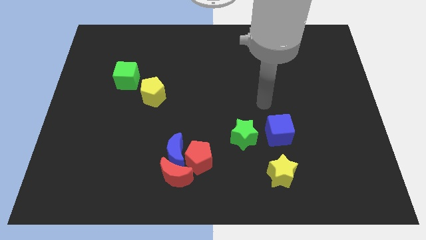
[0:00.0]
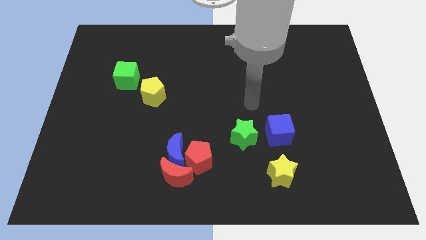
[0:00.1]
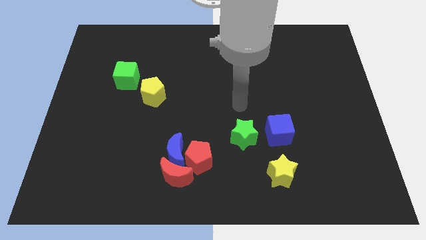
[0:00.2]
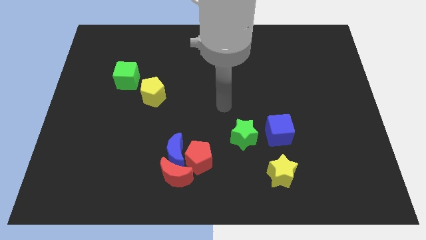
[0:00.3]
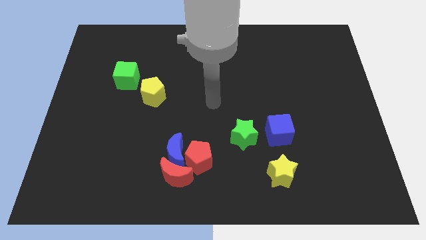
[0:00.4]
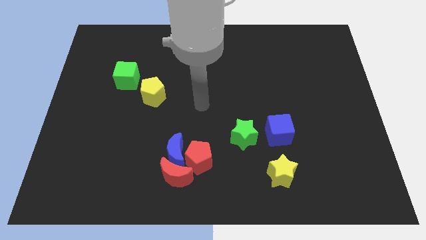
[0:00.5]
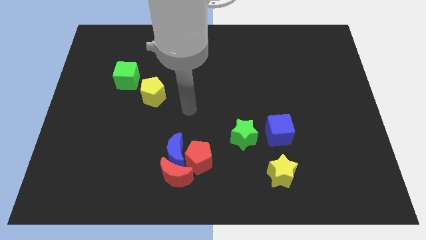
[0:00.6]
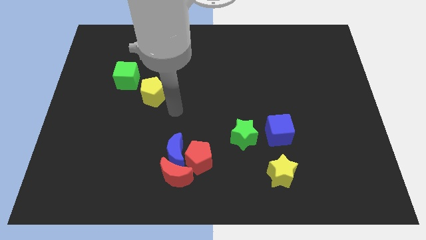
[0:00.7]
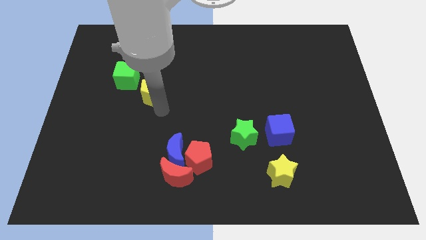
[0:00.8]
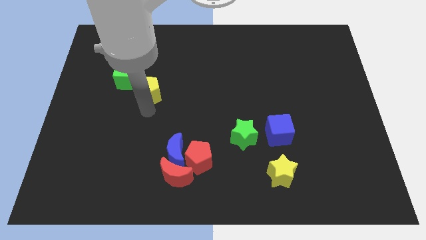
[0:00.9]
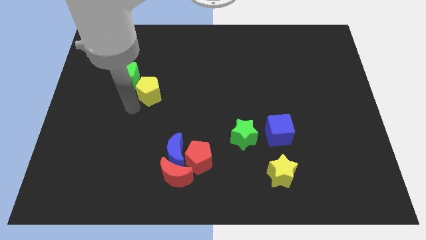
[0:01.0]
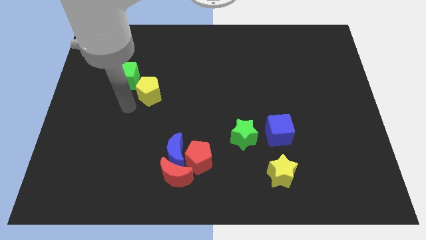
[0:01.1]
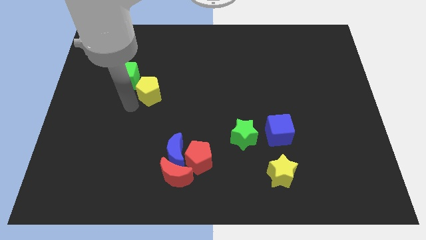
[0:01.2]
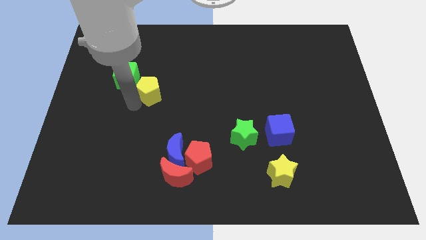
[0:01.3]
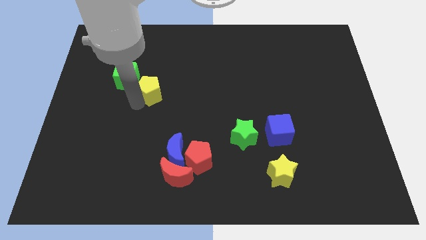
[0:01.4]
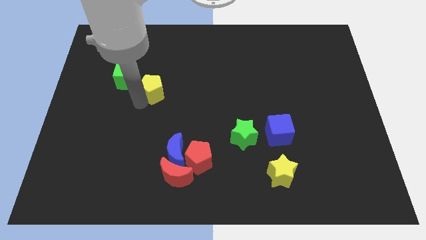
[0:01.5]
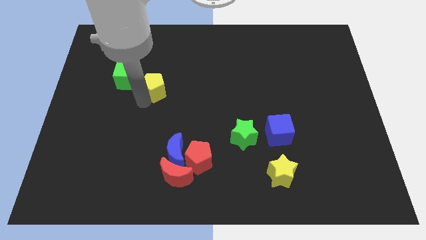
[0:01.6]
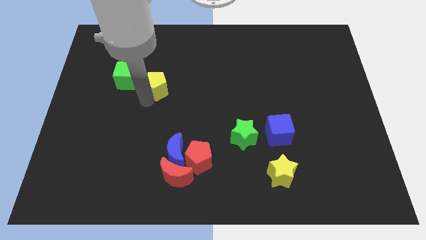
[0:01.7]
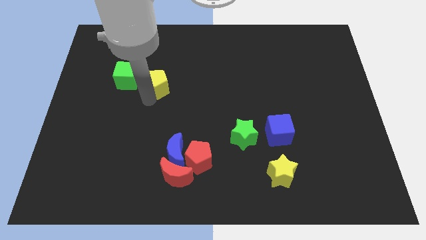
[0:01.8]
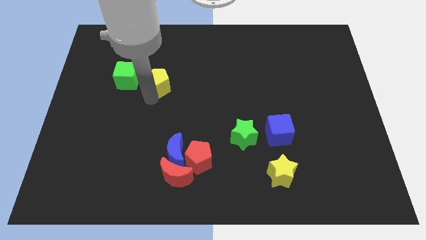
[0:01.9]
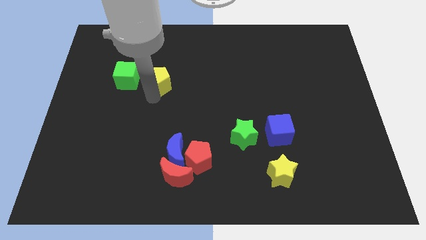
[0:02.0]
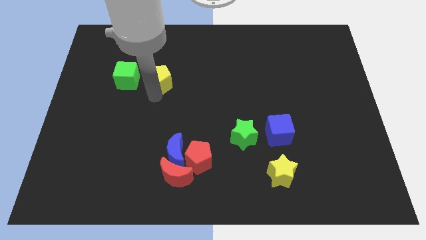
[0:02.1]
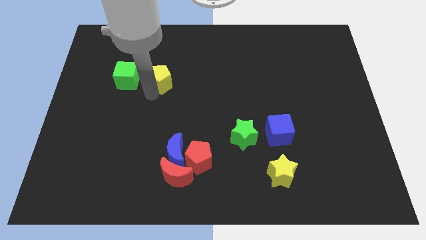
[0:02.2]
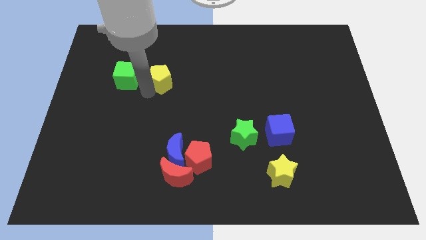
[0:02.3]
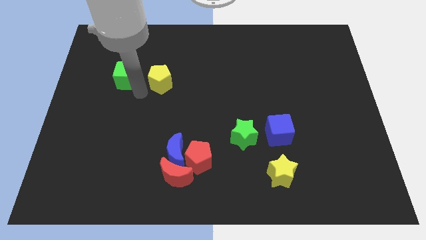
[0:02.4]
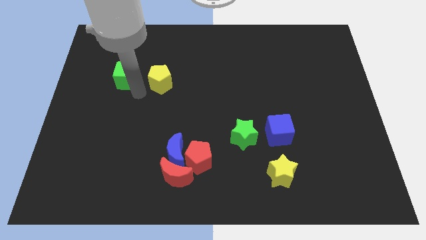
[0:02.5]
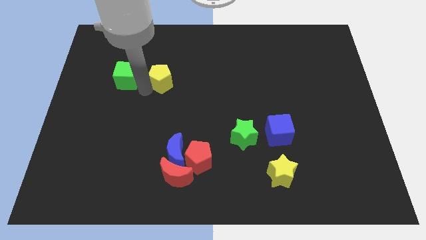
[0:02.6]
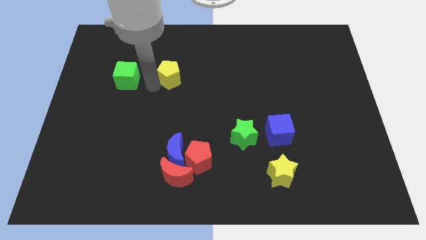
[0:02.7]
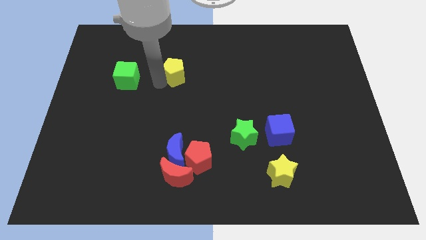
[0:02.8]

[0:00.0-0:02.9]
slightly move the yellow pentagon up and to the right diagonally

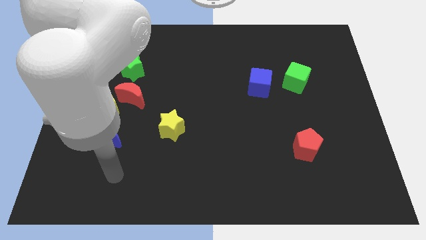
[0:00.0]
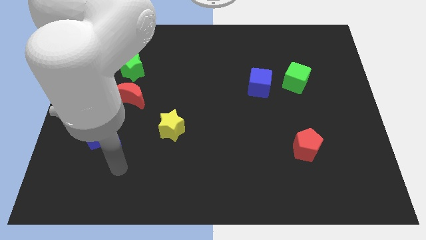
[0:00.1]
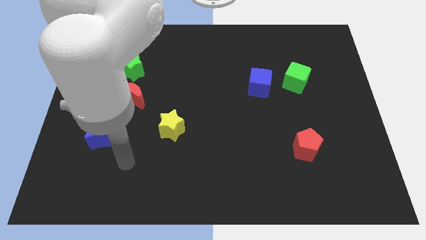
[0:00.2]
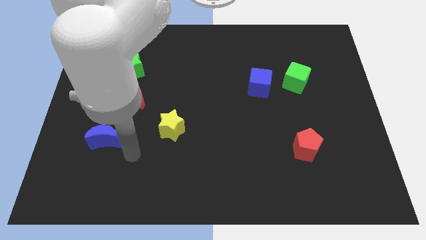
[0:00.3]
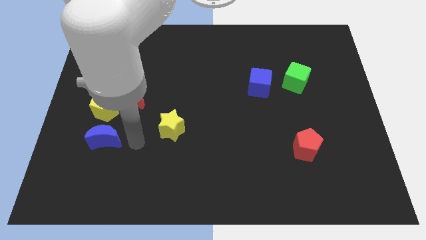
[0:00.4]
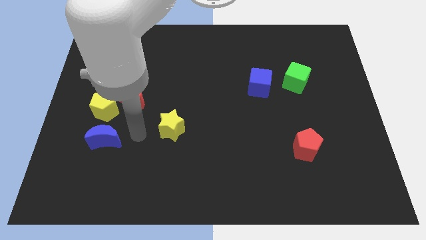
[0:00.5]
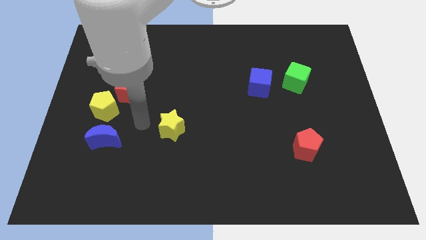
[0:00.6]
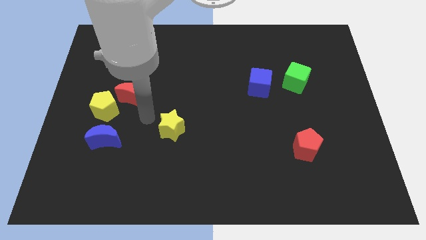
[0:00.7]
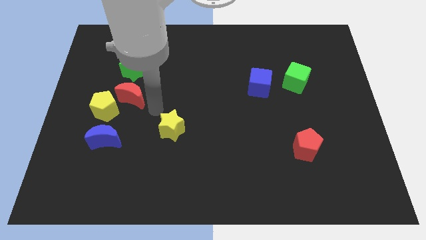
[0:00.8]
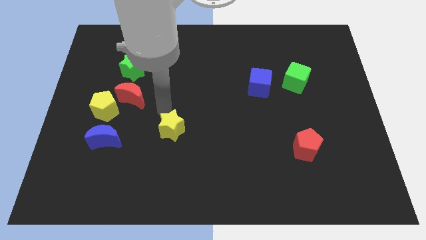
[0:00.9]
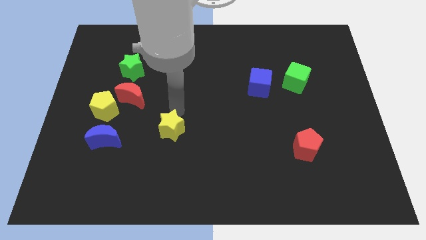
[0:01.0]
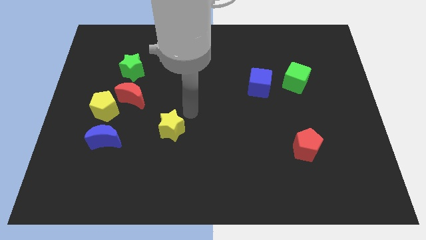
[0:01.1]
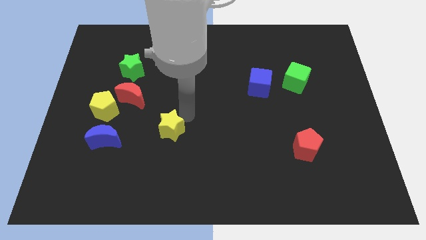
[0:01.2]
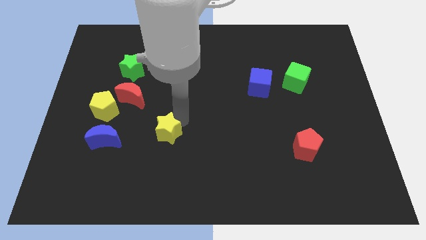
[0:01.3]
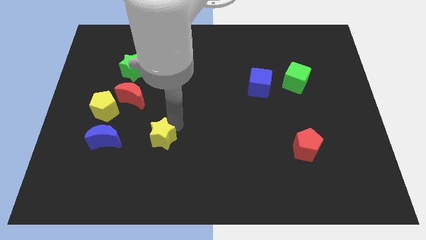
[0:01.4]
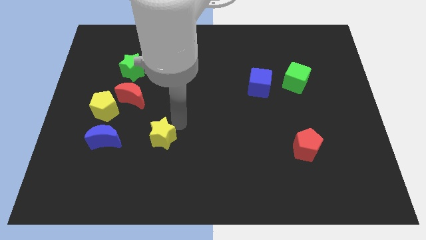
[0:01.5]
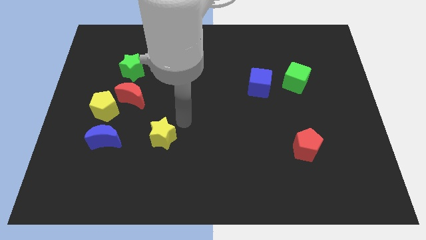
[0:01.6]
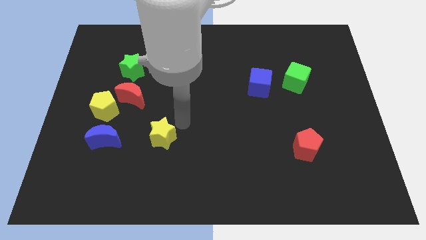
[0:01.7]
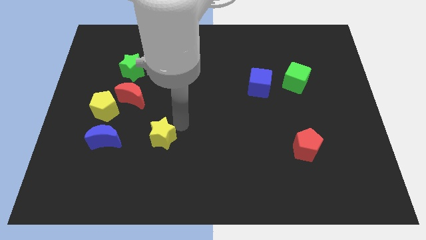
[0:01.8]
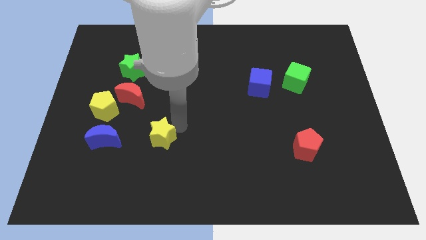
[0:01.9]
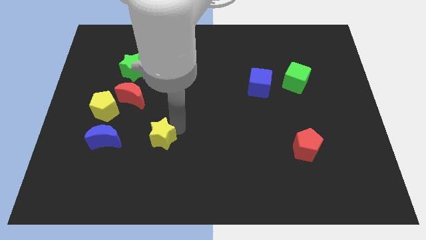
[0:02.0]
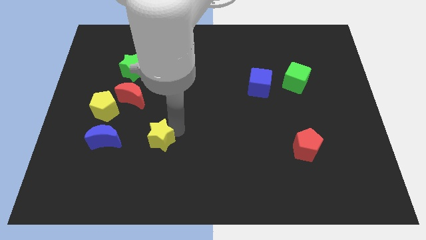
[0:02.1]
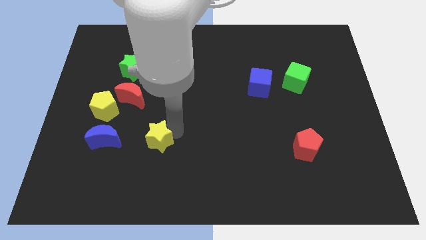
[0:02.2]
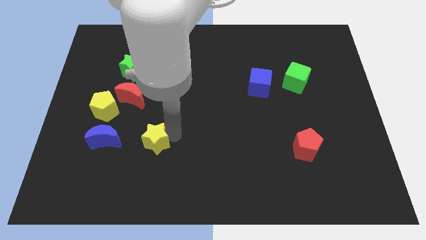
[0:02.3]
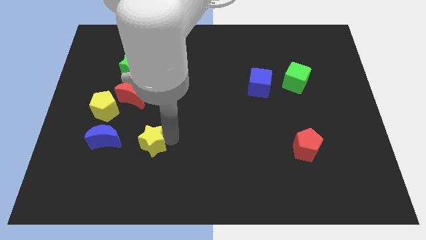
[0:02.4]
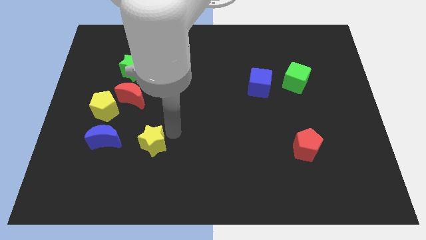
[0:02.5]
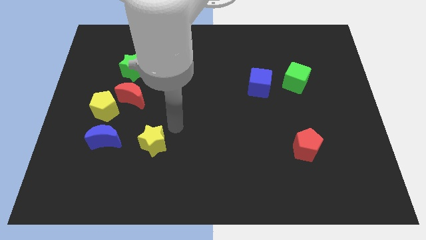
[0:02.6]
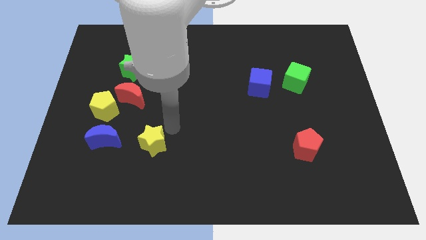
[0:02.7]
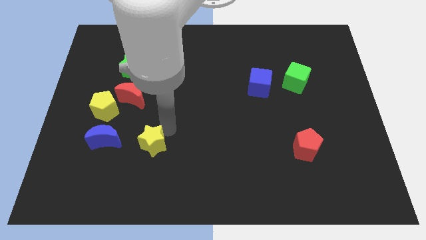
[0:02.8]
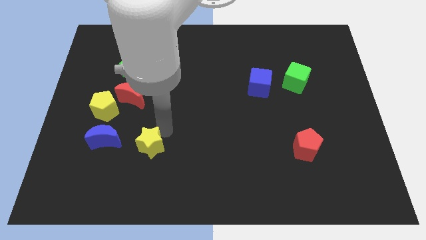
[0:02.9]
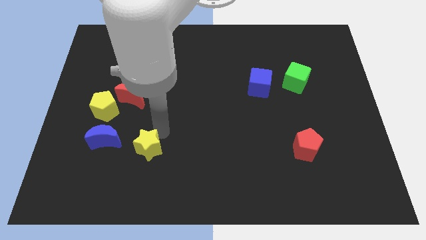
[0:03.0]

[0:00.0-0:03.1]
move the yellow star downwards and then left a little bit

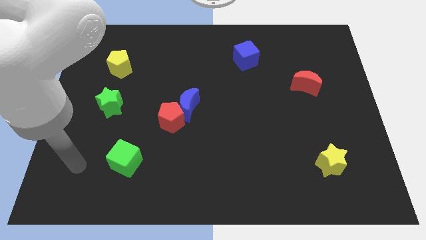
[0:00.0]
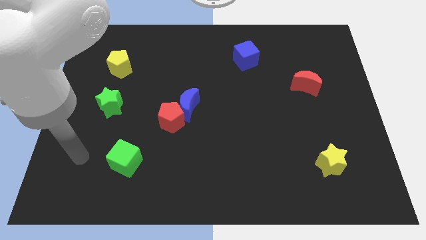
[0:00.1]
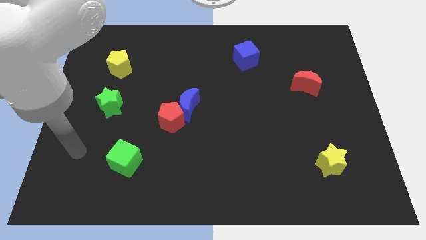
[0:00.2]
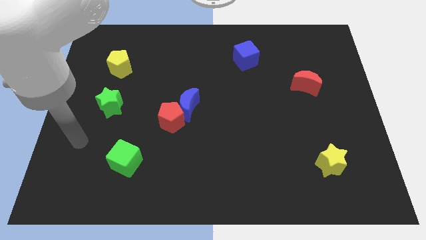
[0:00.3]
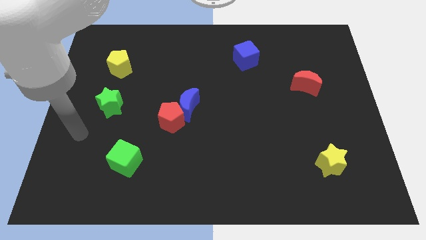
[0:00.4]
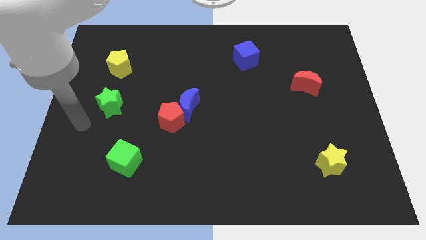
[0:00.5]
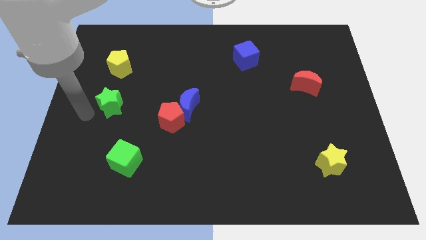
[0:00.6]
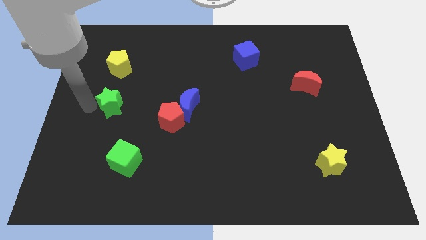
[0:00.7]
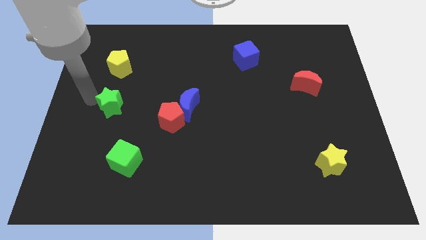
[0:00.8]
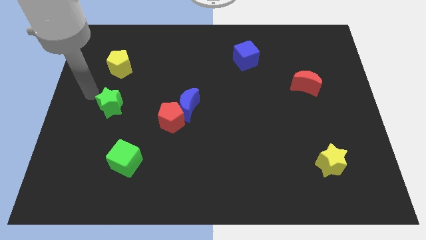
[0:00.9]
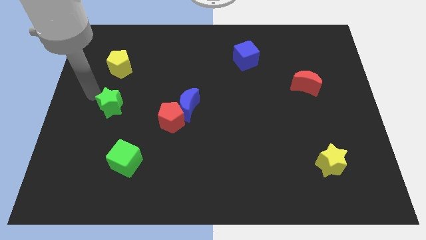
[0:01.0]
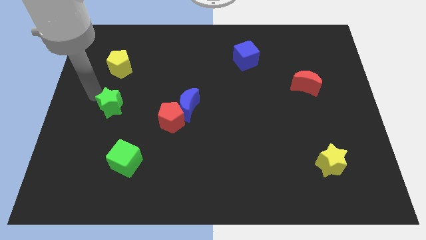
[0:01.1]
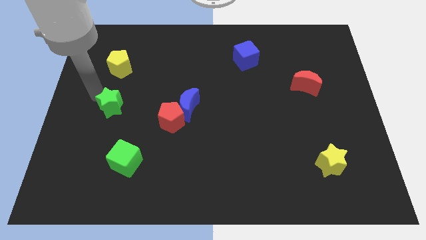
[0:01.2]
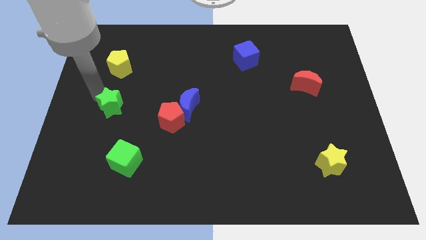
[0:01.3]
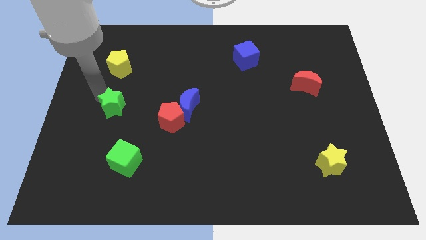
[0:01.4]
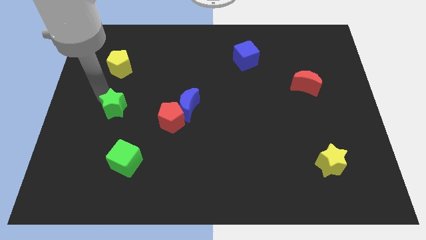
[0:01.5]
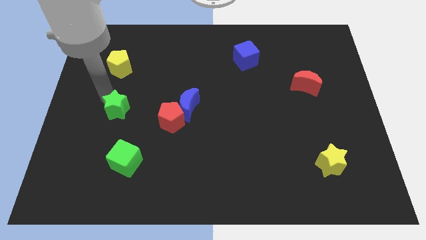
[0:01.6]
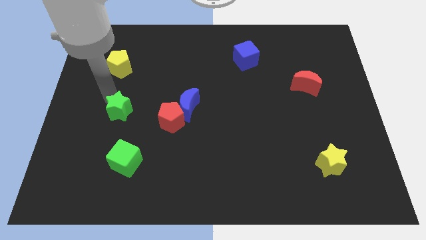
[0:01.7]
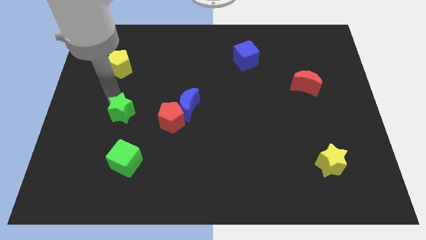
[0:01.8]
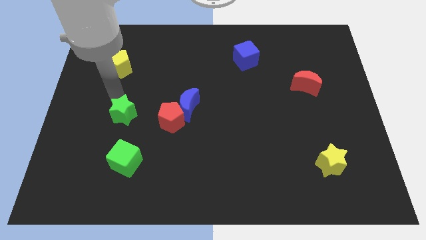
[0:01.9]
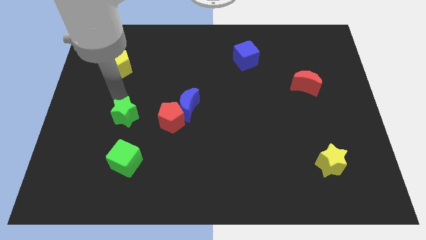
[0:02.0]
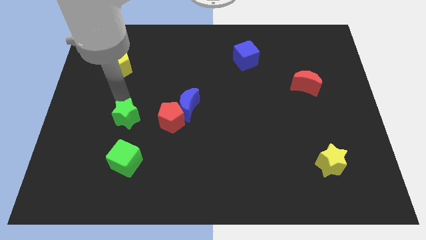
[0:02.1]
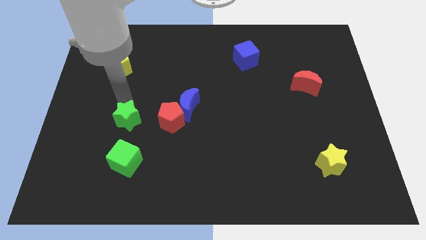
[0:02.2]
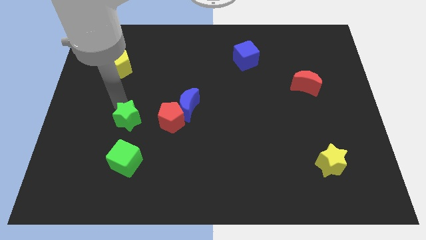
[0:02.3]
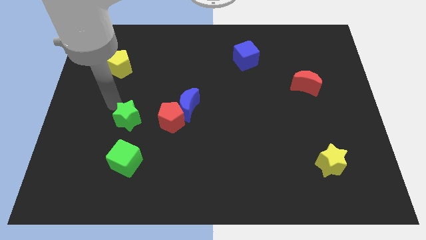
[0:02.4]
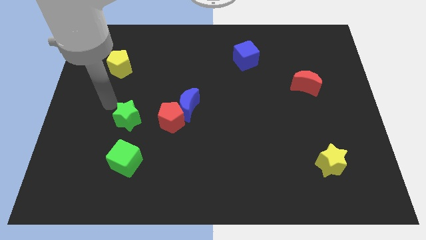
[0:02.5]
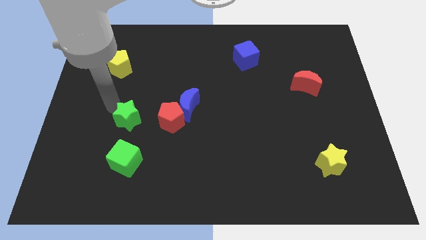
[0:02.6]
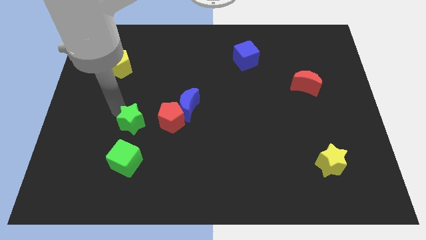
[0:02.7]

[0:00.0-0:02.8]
push the green star down and to the right slightly
